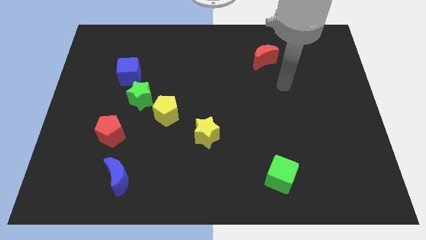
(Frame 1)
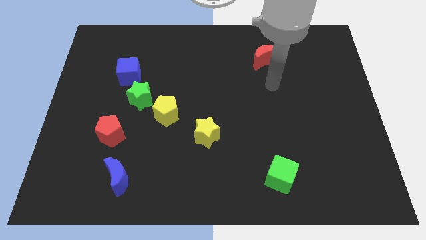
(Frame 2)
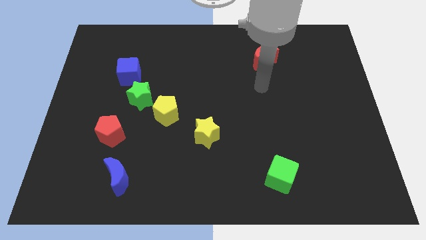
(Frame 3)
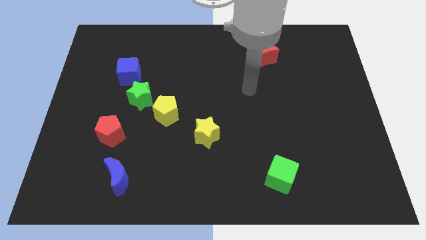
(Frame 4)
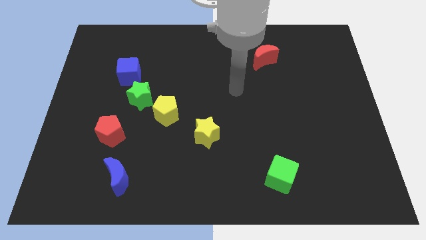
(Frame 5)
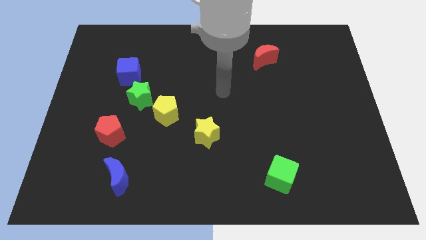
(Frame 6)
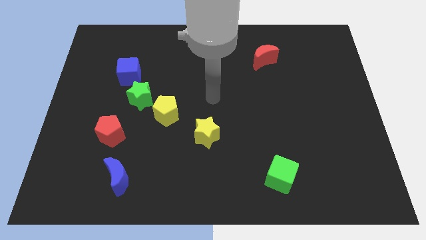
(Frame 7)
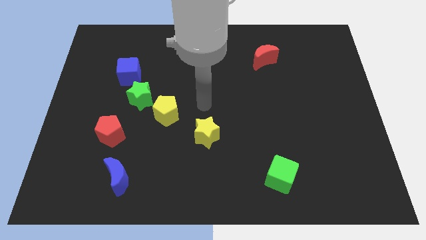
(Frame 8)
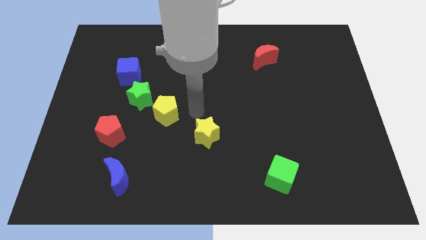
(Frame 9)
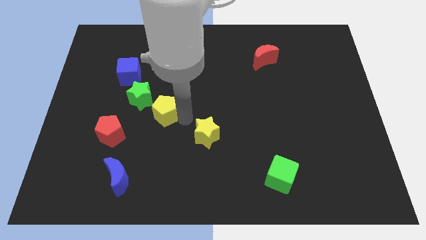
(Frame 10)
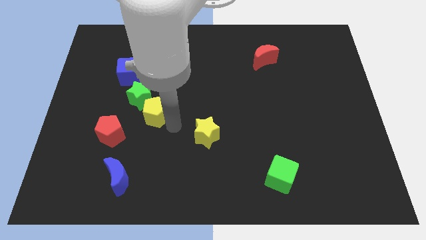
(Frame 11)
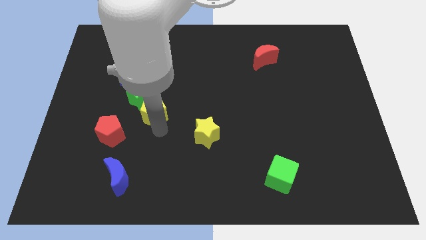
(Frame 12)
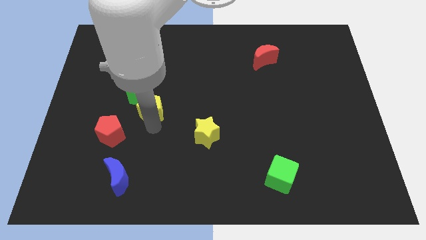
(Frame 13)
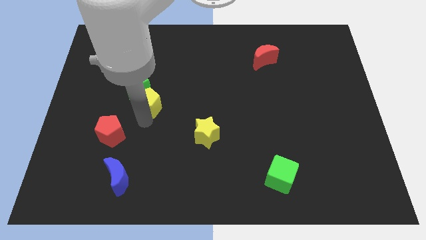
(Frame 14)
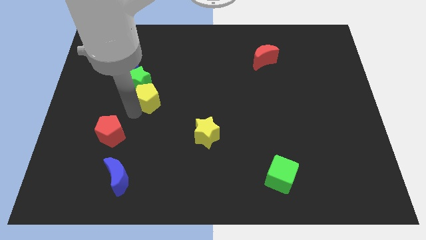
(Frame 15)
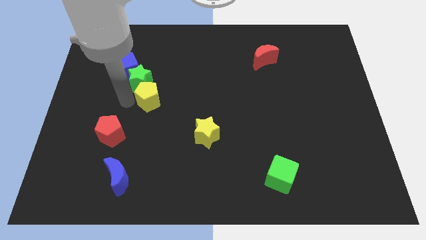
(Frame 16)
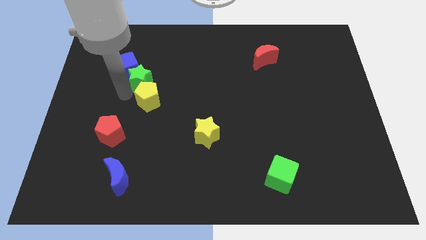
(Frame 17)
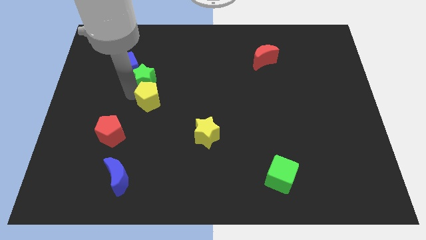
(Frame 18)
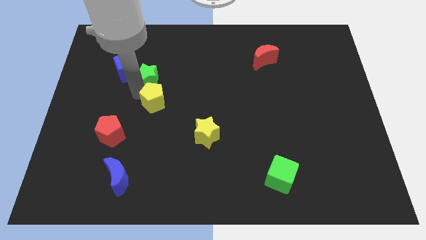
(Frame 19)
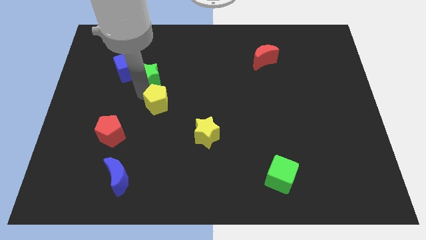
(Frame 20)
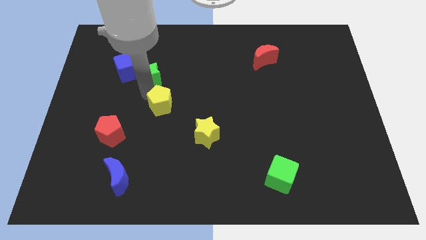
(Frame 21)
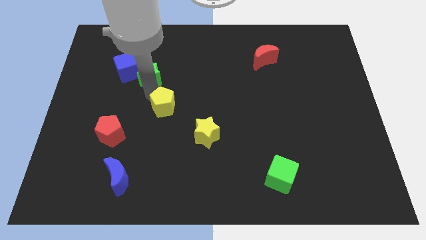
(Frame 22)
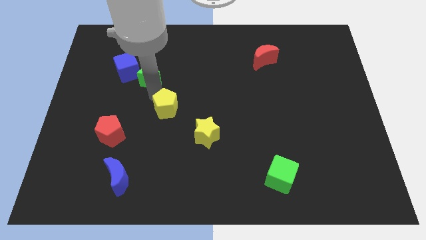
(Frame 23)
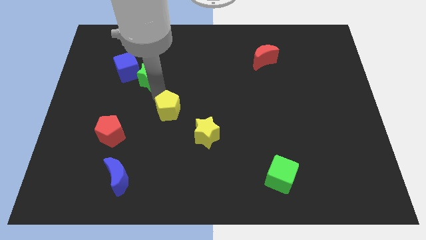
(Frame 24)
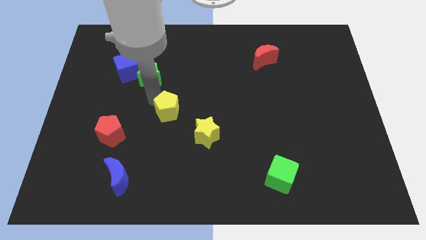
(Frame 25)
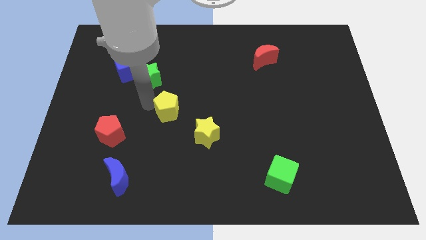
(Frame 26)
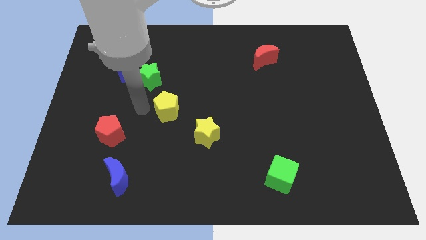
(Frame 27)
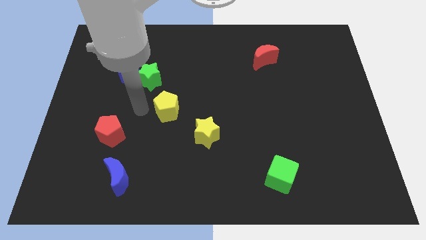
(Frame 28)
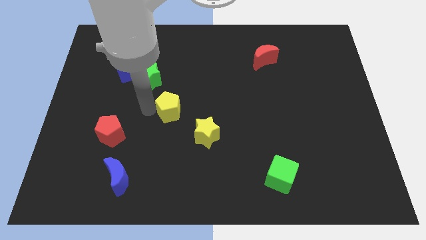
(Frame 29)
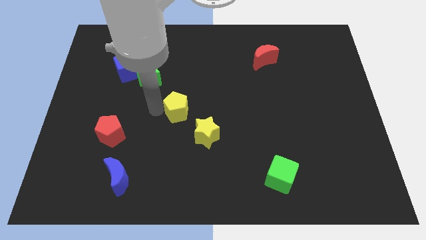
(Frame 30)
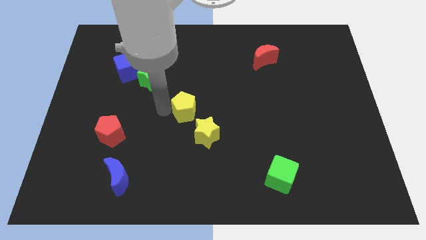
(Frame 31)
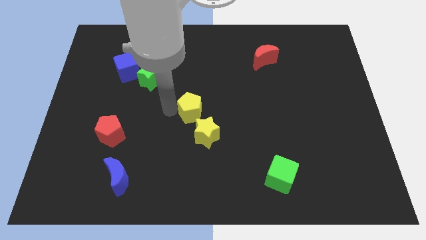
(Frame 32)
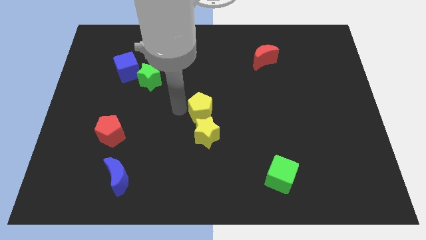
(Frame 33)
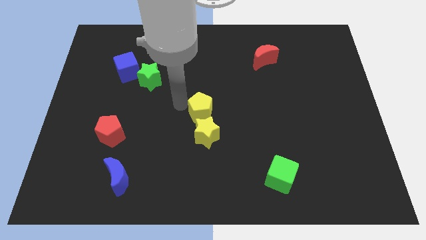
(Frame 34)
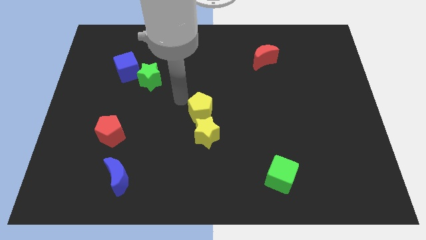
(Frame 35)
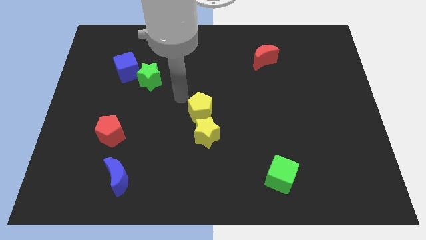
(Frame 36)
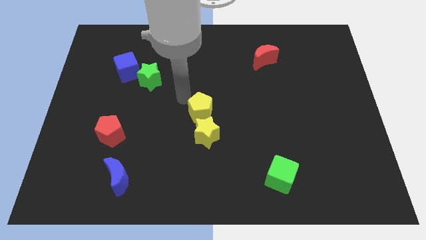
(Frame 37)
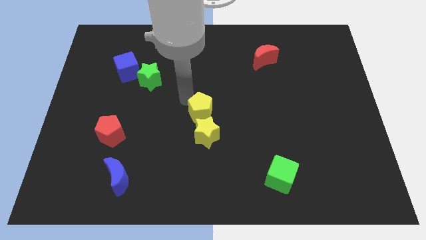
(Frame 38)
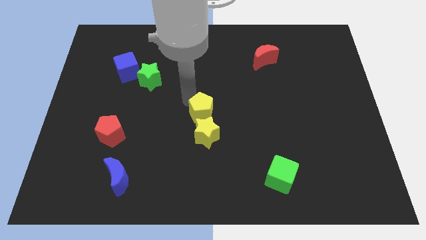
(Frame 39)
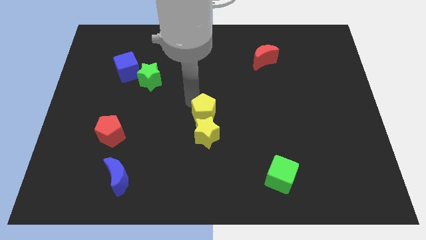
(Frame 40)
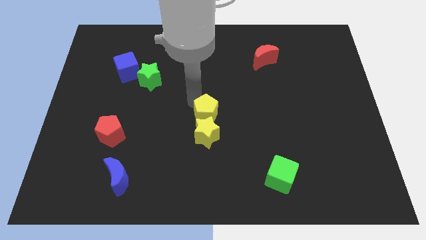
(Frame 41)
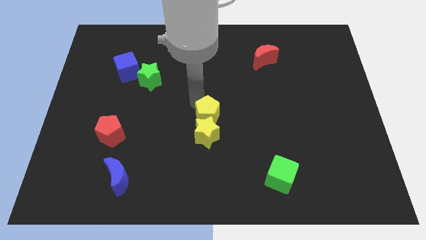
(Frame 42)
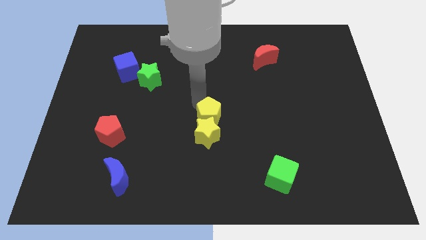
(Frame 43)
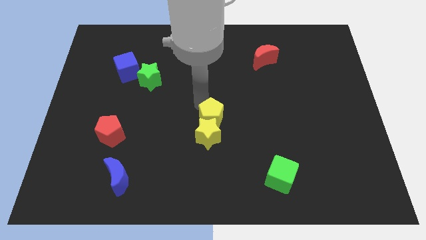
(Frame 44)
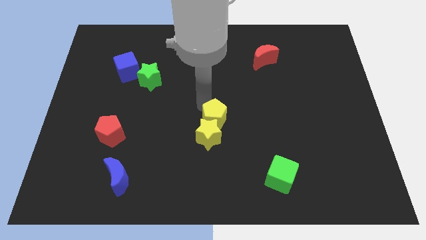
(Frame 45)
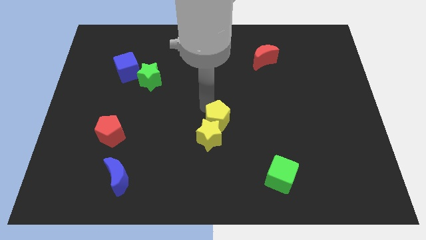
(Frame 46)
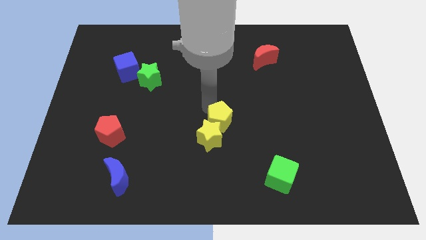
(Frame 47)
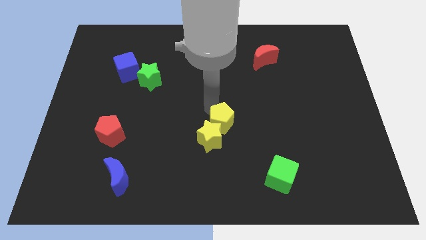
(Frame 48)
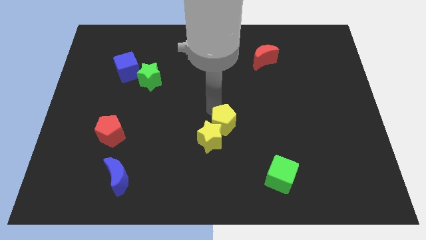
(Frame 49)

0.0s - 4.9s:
push the yellow pentagon to the right of the yellow star

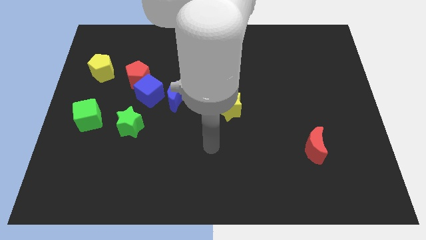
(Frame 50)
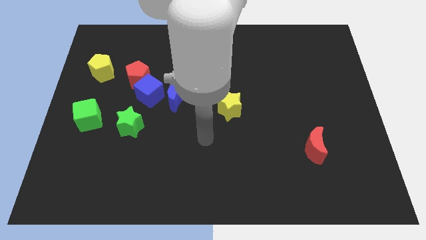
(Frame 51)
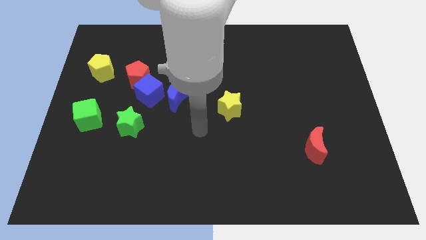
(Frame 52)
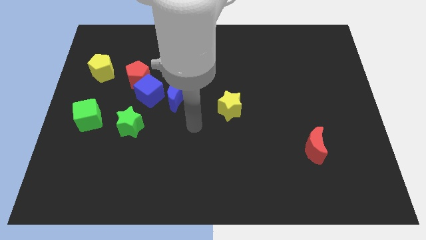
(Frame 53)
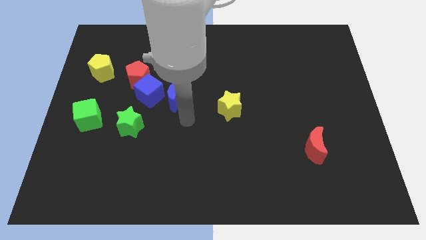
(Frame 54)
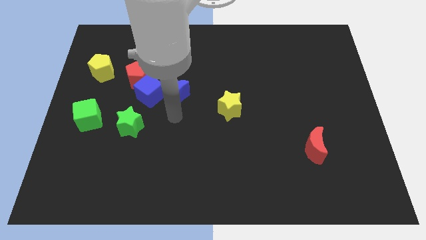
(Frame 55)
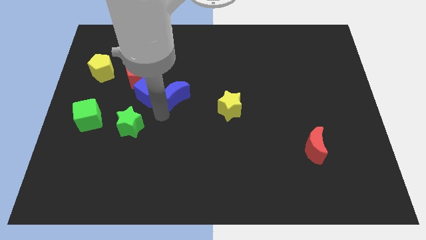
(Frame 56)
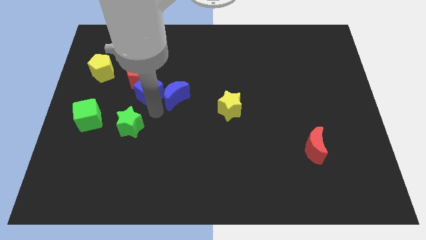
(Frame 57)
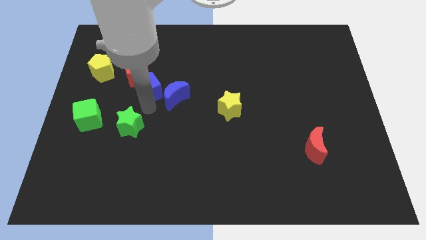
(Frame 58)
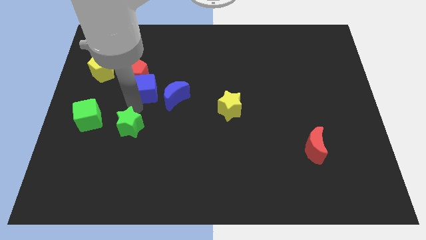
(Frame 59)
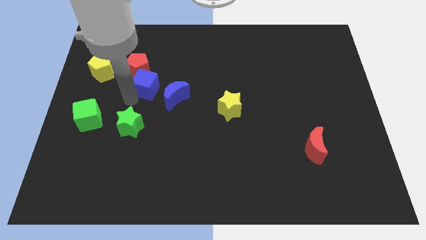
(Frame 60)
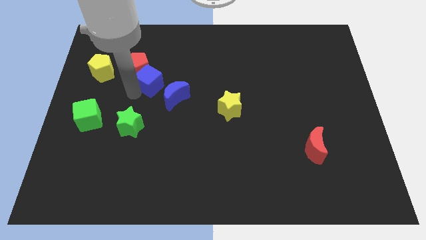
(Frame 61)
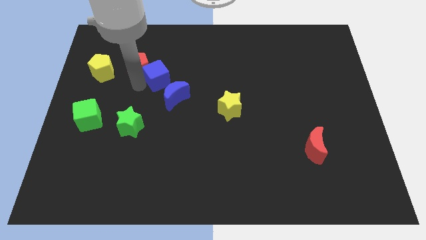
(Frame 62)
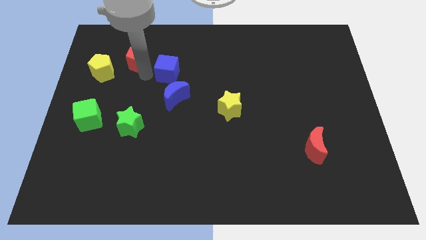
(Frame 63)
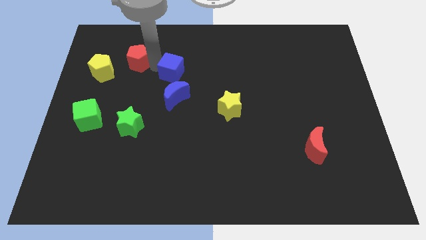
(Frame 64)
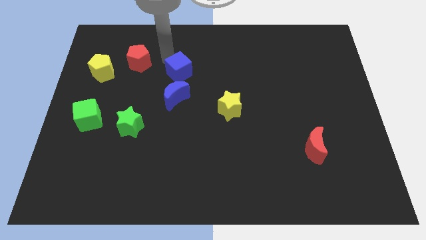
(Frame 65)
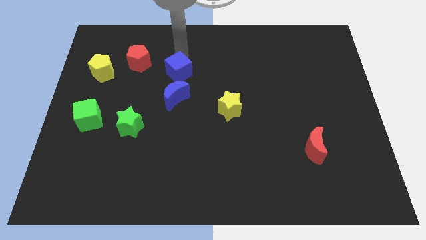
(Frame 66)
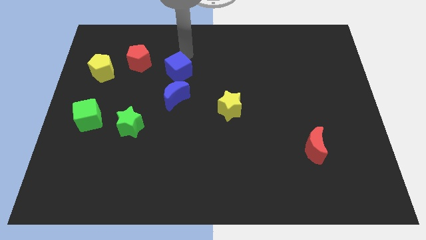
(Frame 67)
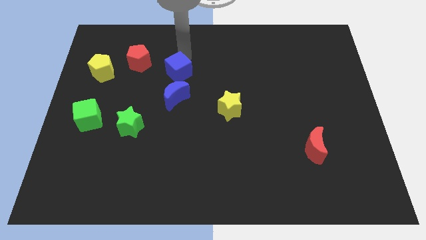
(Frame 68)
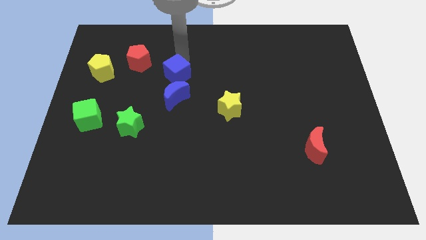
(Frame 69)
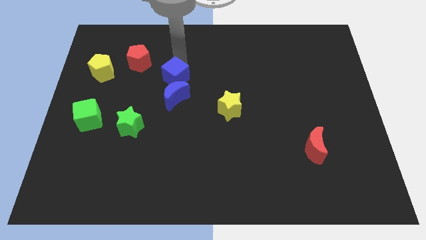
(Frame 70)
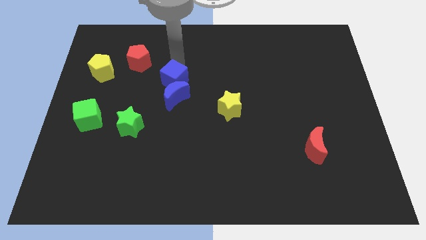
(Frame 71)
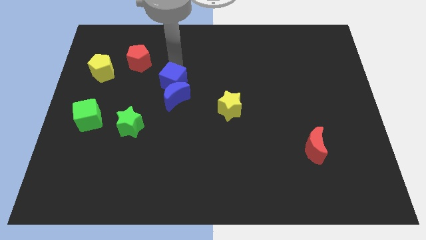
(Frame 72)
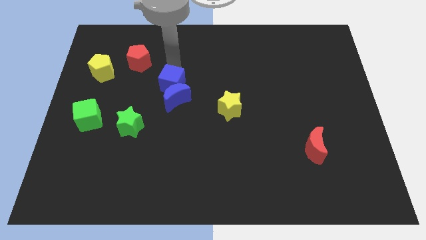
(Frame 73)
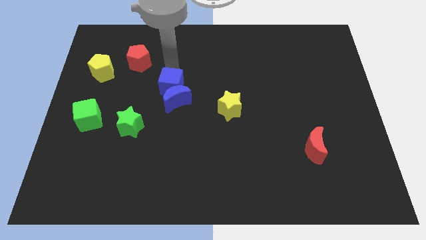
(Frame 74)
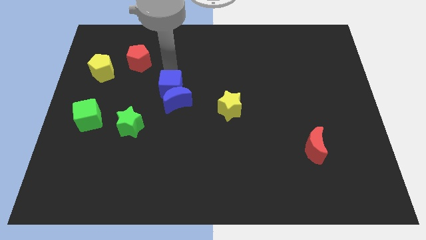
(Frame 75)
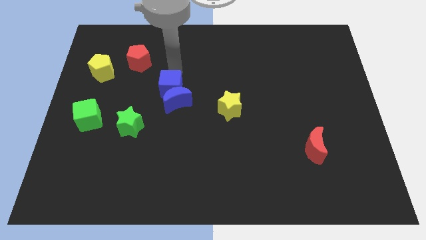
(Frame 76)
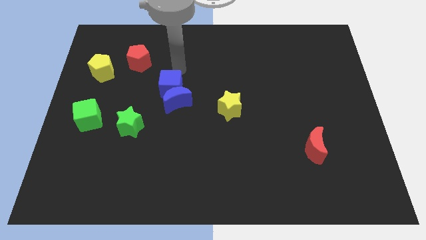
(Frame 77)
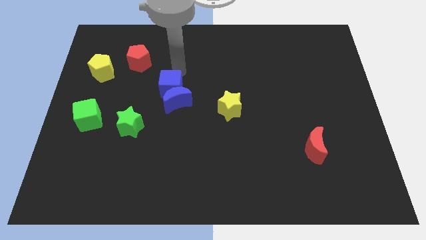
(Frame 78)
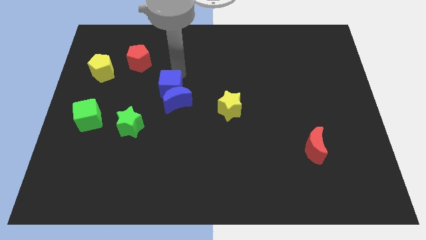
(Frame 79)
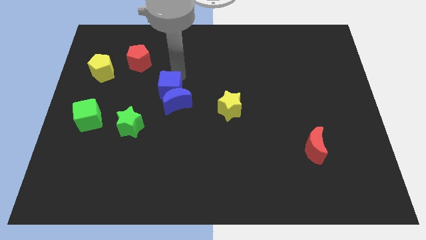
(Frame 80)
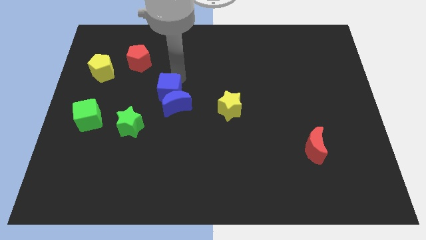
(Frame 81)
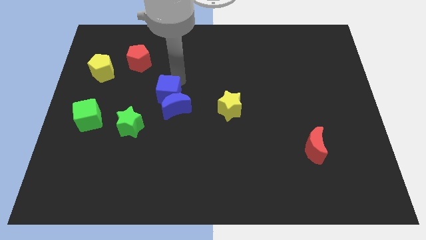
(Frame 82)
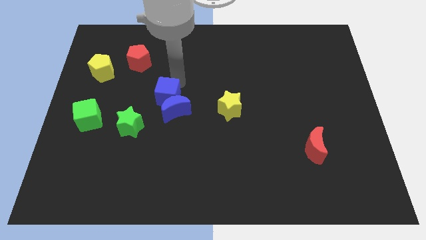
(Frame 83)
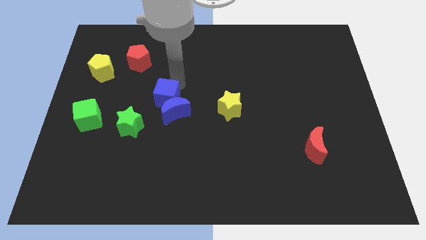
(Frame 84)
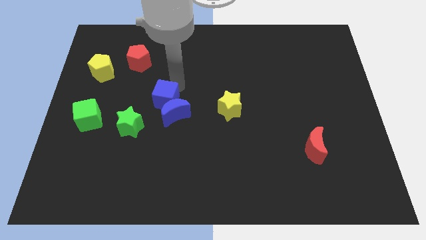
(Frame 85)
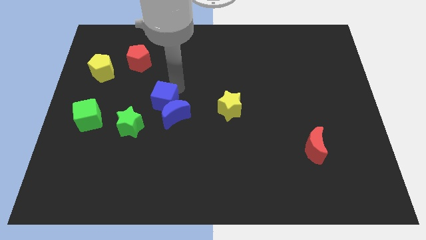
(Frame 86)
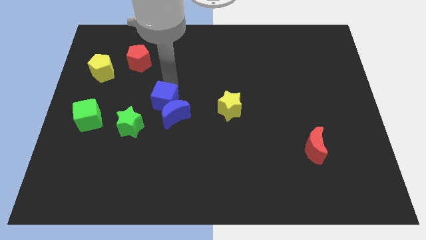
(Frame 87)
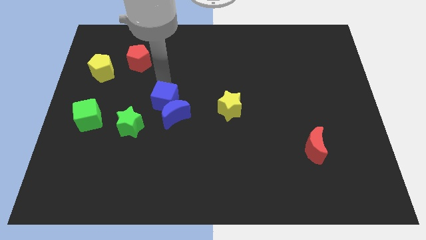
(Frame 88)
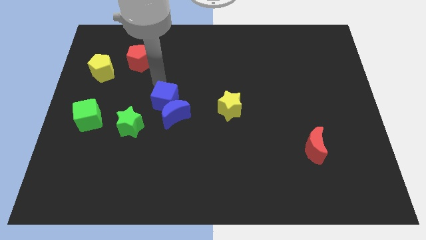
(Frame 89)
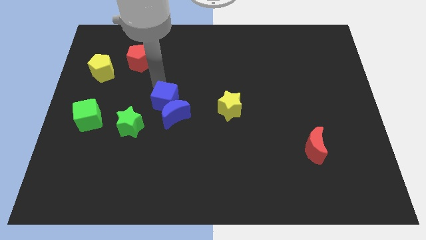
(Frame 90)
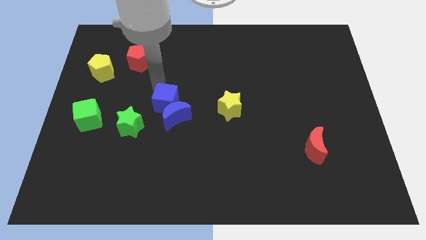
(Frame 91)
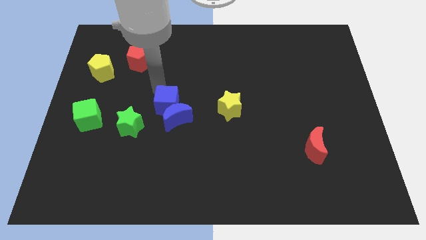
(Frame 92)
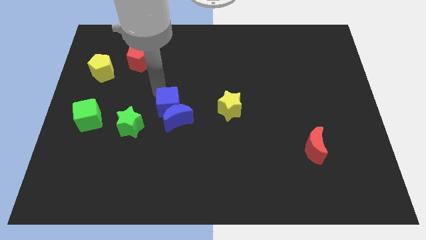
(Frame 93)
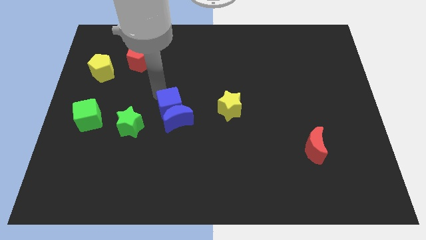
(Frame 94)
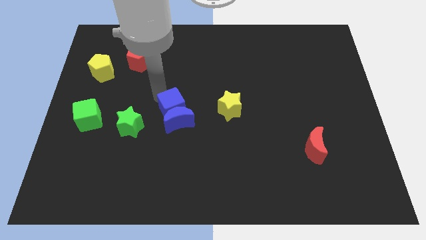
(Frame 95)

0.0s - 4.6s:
push the blue cube to the right of the green star
